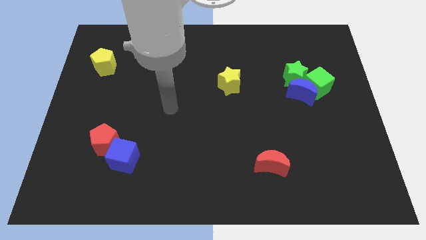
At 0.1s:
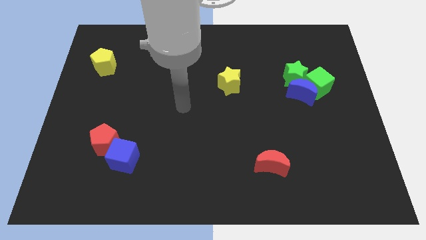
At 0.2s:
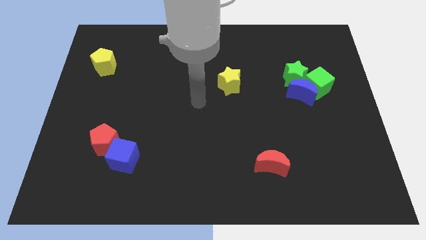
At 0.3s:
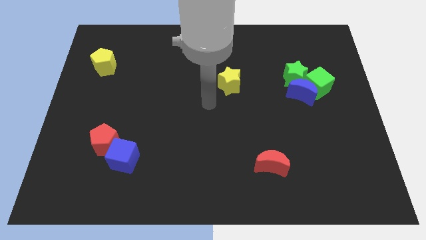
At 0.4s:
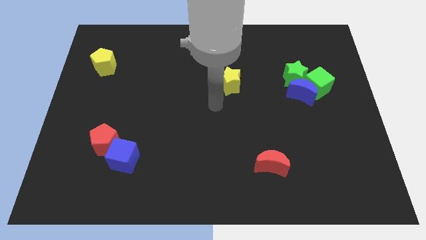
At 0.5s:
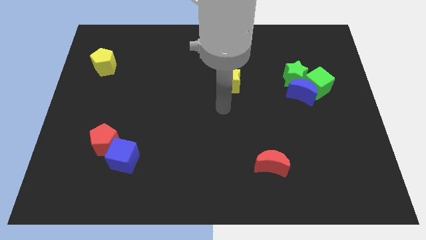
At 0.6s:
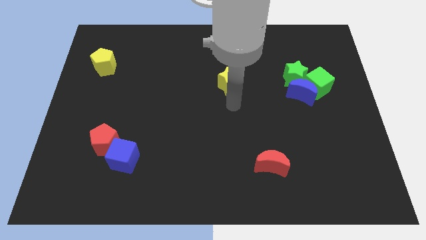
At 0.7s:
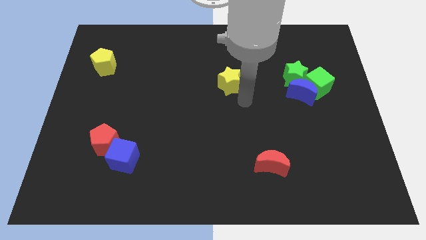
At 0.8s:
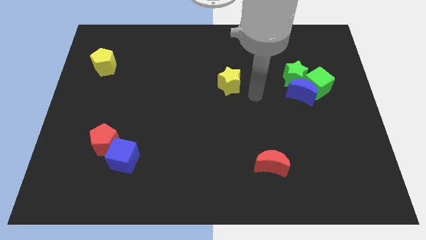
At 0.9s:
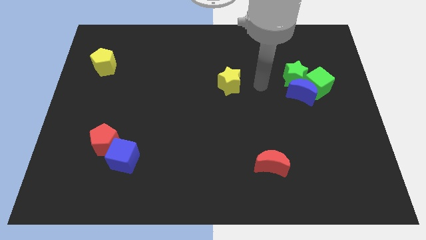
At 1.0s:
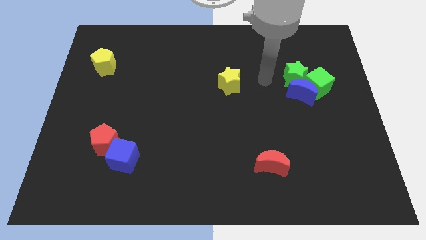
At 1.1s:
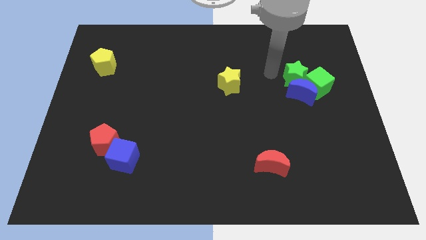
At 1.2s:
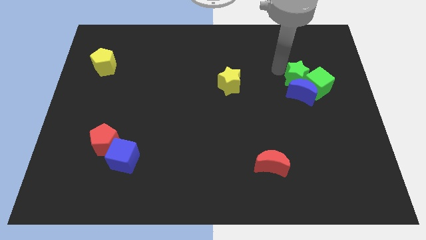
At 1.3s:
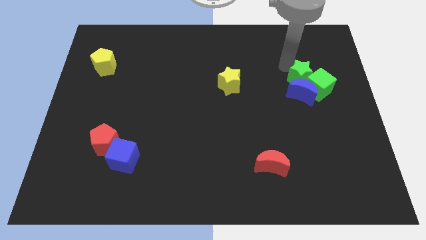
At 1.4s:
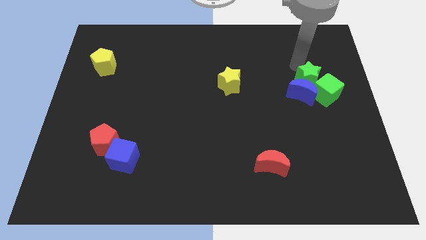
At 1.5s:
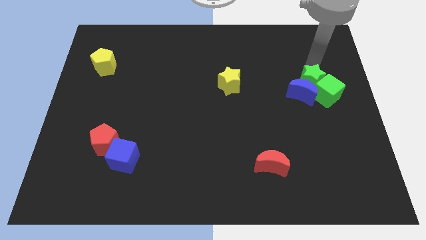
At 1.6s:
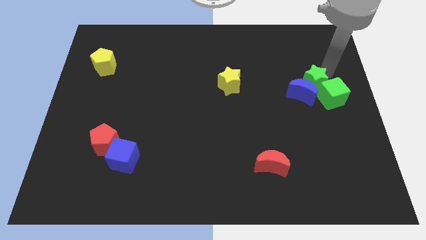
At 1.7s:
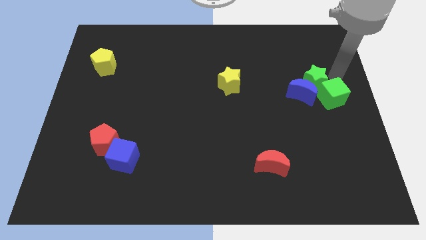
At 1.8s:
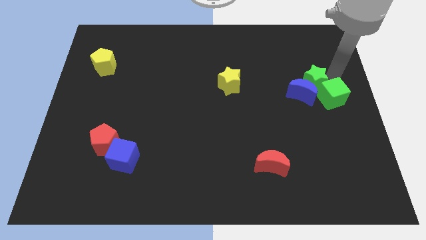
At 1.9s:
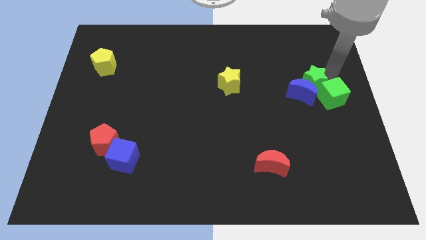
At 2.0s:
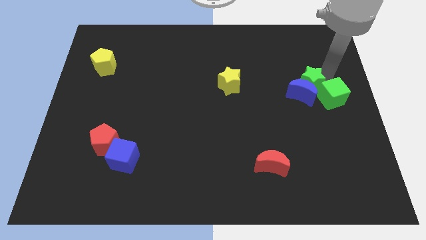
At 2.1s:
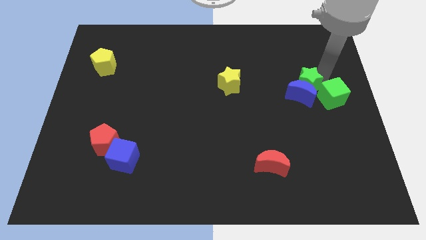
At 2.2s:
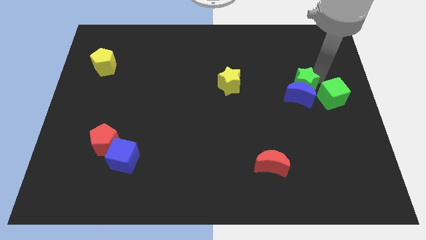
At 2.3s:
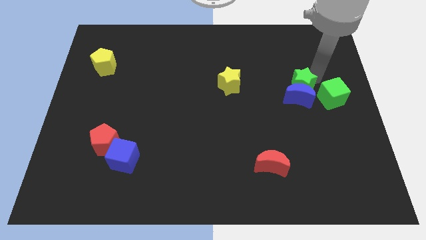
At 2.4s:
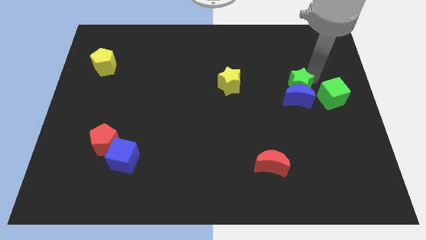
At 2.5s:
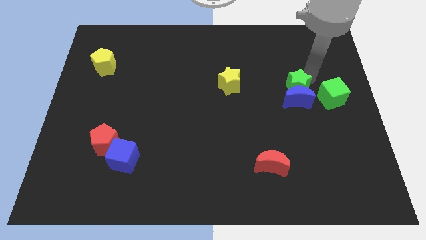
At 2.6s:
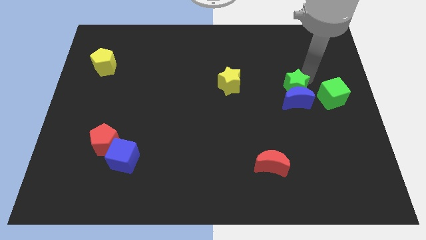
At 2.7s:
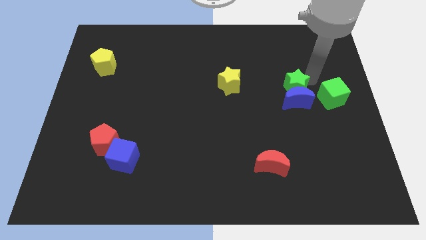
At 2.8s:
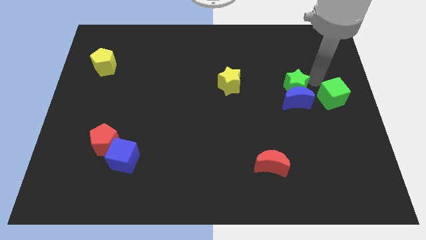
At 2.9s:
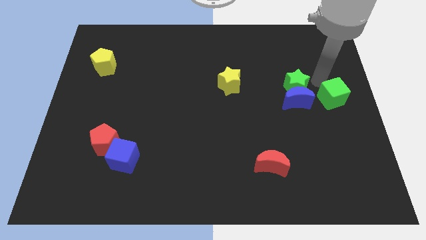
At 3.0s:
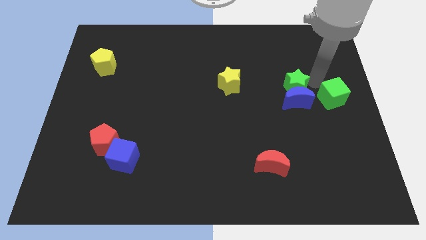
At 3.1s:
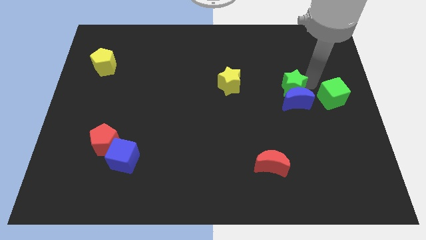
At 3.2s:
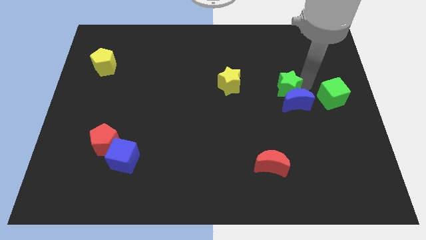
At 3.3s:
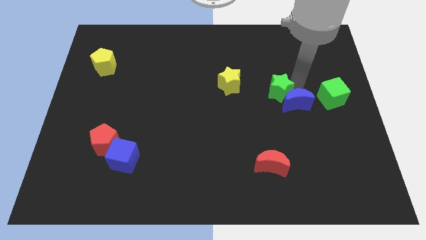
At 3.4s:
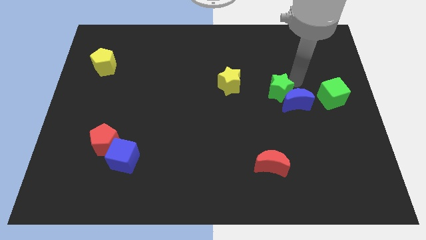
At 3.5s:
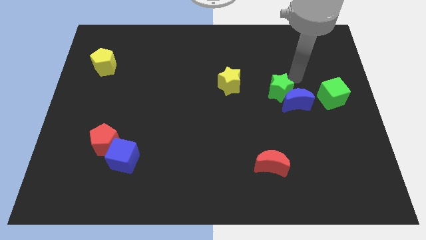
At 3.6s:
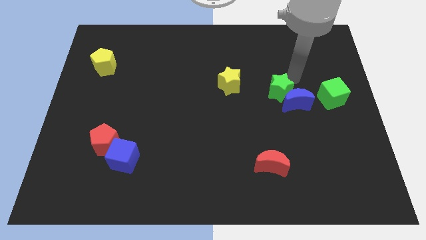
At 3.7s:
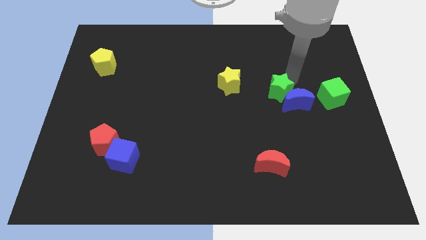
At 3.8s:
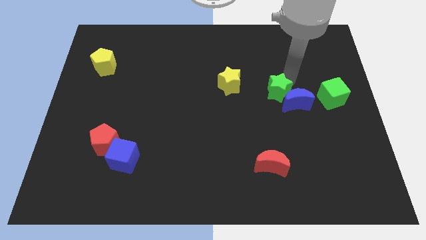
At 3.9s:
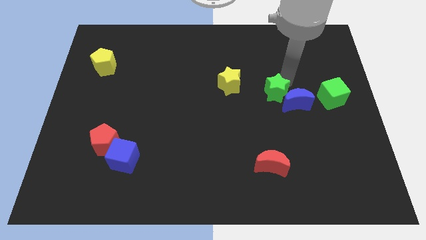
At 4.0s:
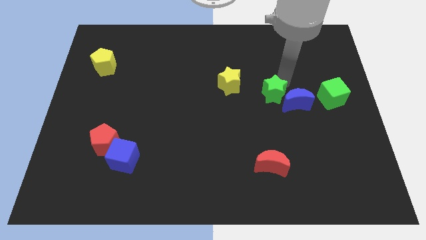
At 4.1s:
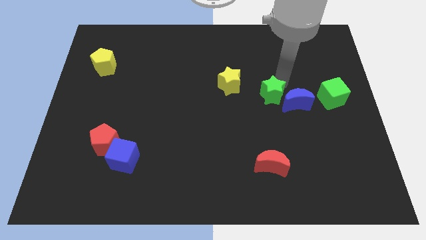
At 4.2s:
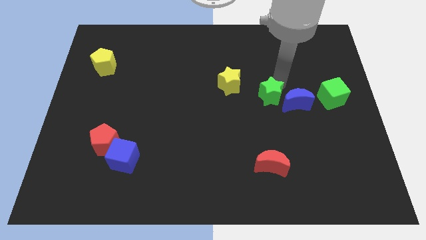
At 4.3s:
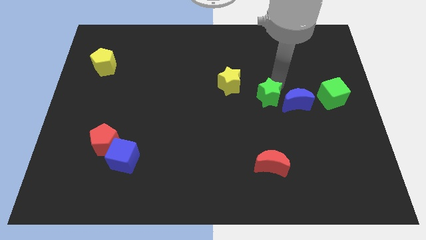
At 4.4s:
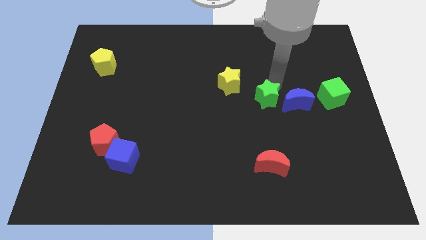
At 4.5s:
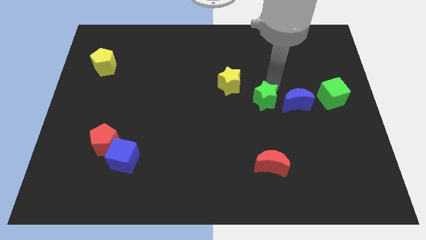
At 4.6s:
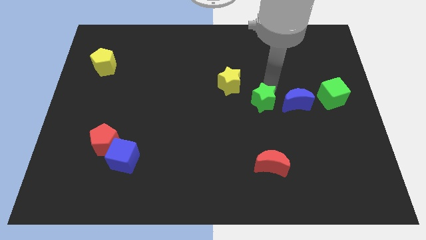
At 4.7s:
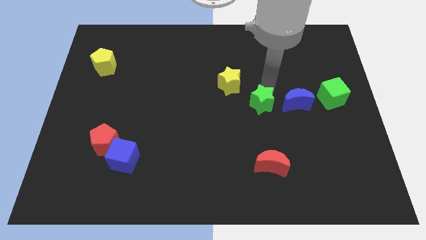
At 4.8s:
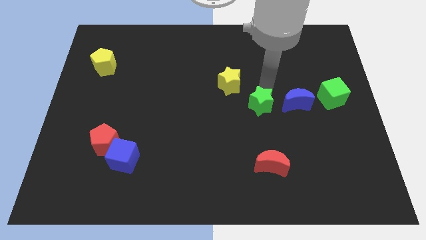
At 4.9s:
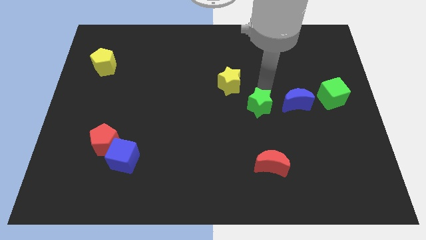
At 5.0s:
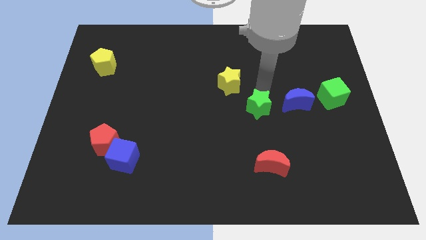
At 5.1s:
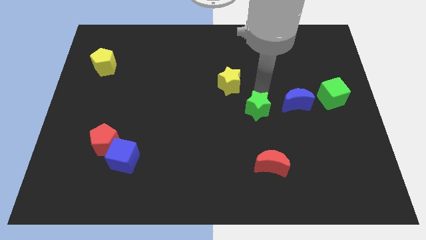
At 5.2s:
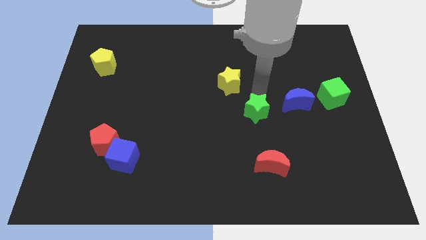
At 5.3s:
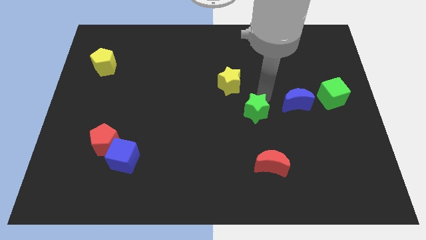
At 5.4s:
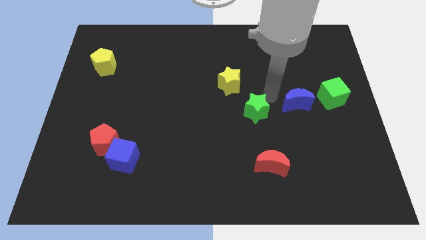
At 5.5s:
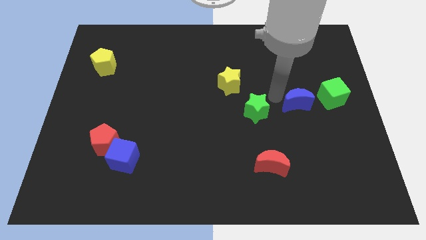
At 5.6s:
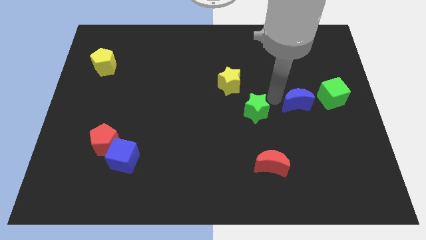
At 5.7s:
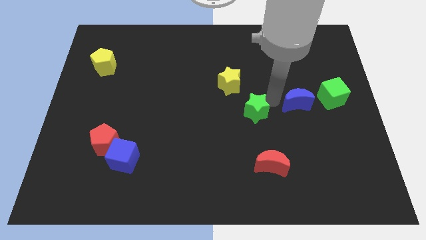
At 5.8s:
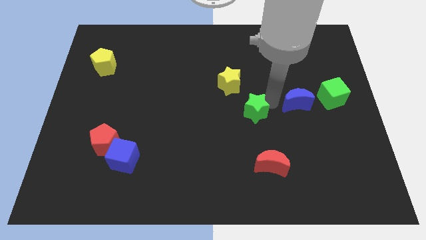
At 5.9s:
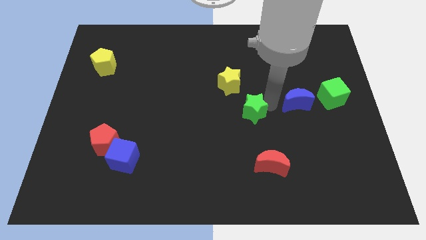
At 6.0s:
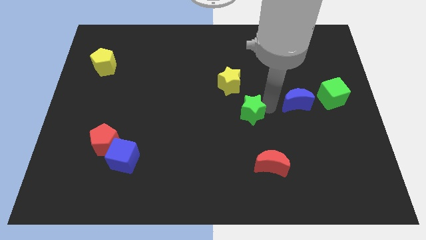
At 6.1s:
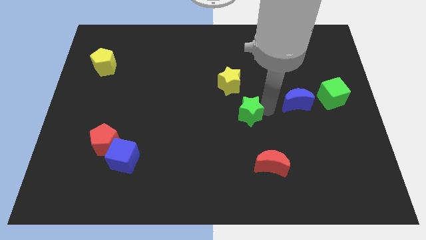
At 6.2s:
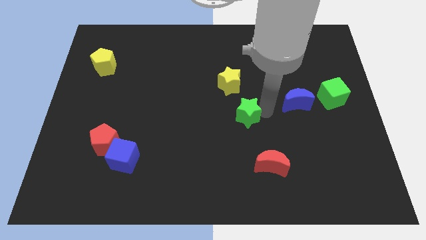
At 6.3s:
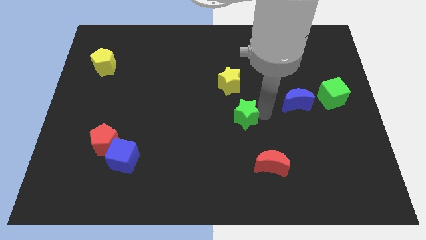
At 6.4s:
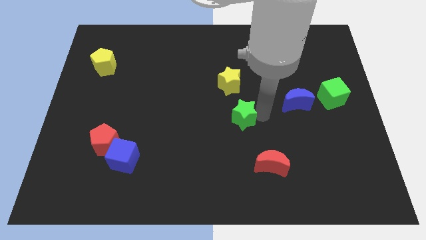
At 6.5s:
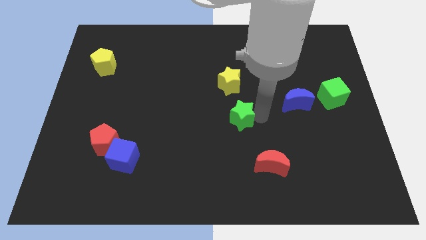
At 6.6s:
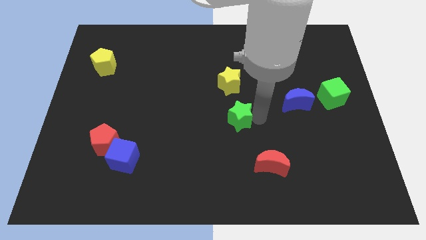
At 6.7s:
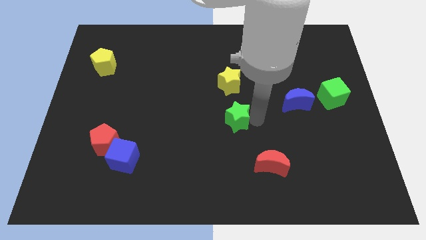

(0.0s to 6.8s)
push the green star diagonally down and left

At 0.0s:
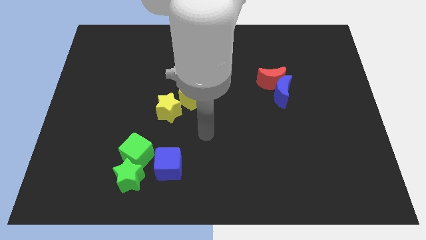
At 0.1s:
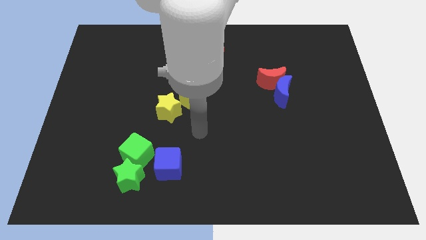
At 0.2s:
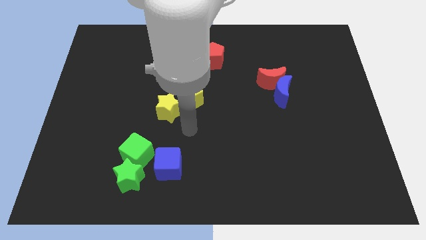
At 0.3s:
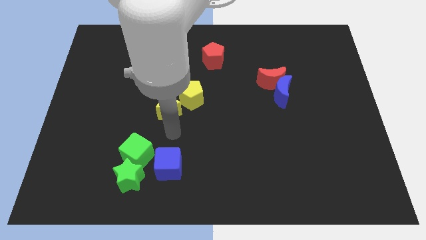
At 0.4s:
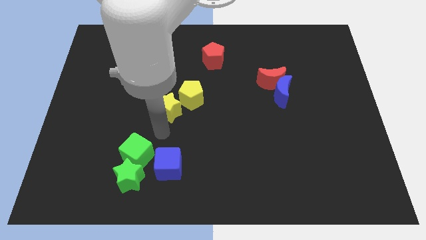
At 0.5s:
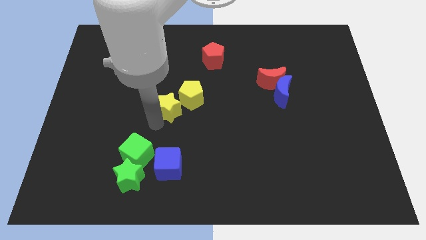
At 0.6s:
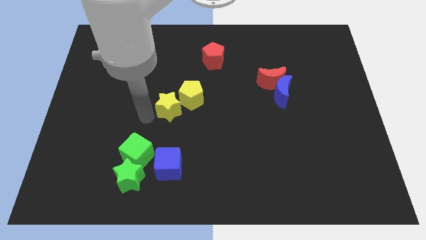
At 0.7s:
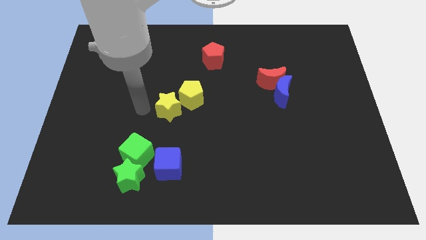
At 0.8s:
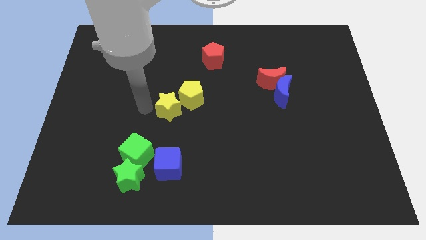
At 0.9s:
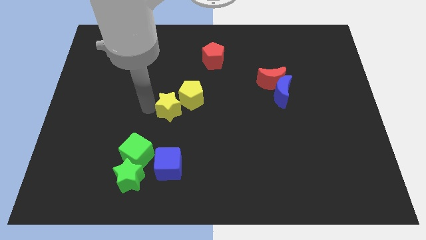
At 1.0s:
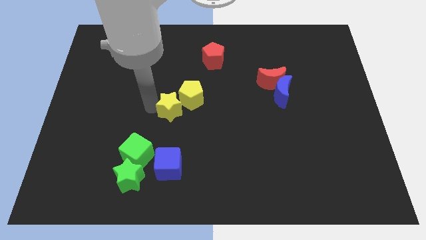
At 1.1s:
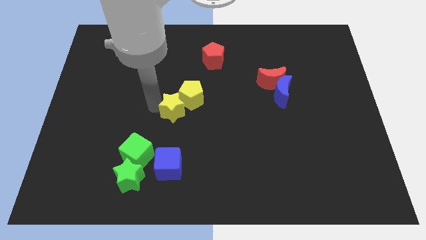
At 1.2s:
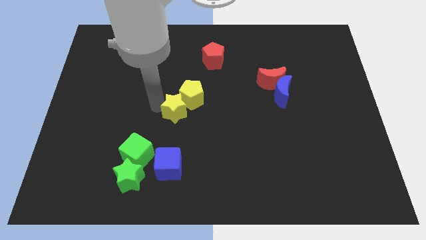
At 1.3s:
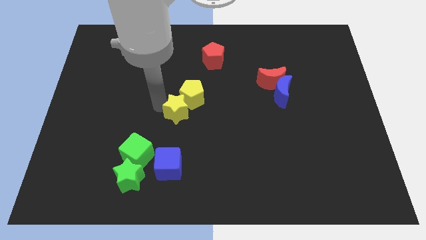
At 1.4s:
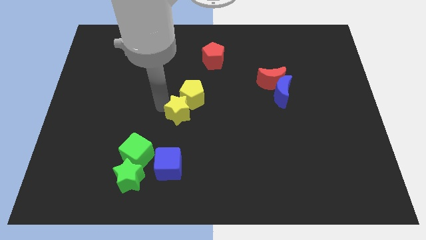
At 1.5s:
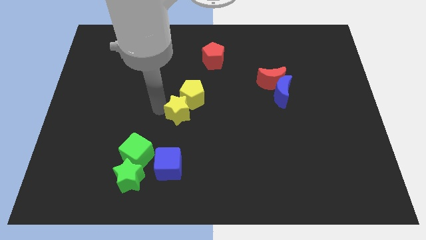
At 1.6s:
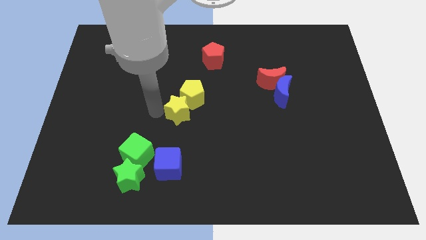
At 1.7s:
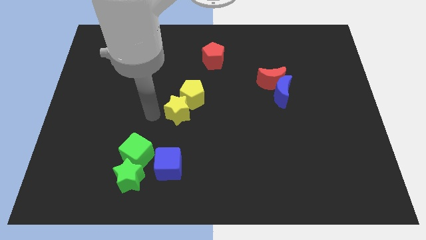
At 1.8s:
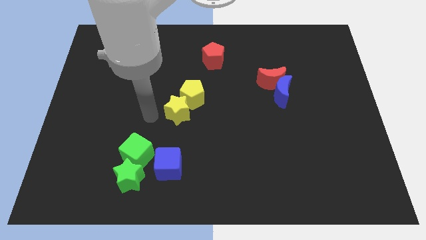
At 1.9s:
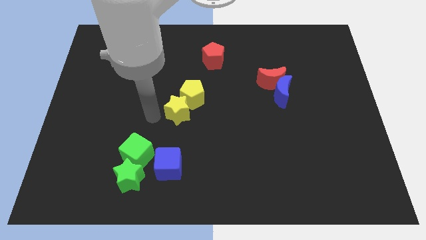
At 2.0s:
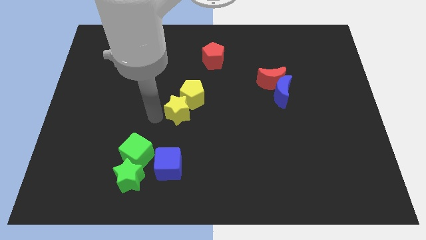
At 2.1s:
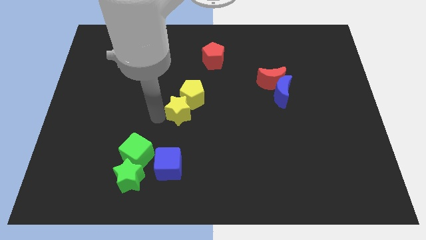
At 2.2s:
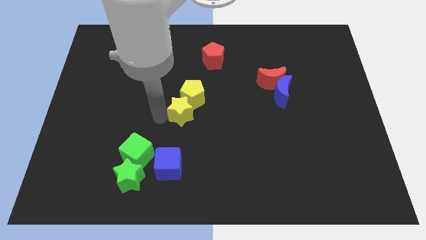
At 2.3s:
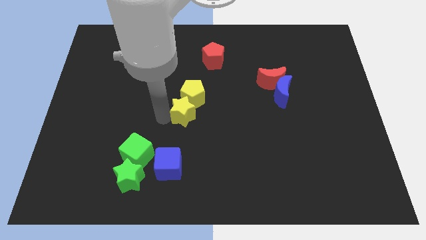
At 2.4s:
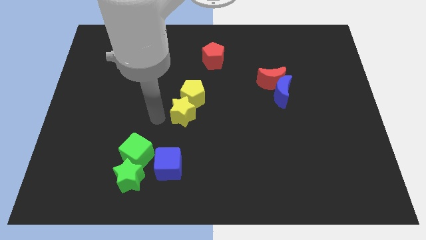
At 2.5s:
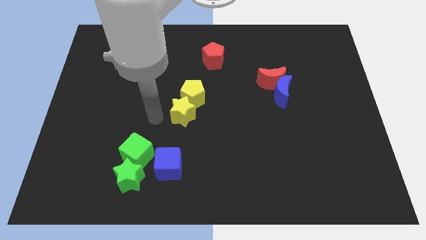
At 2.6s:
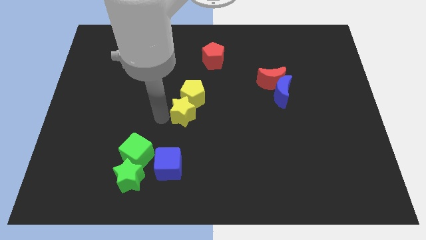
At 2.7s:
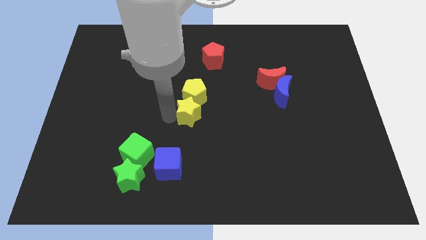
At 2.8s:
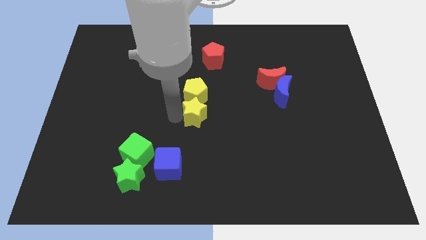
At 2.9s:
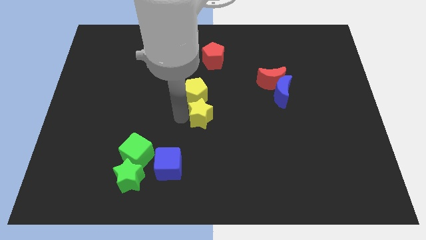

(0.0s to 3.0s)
slide the yellow star to the right a little
